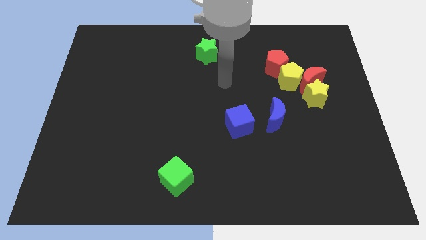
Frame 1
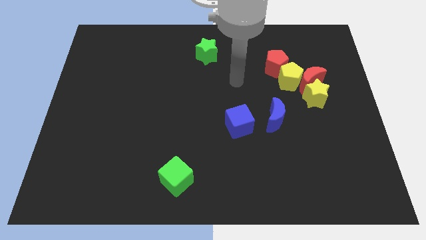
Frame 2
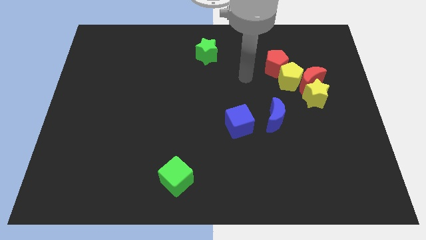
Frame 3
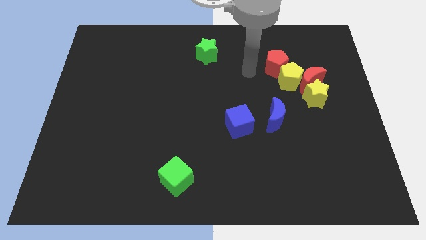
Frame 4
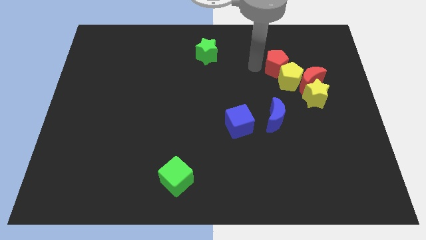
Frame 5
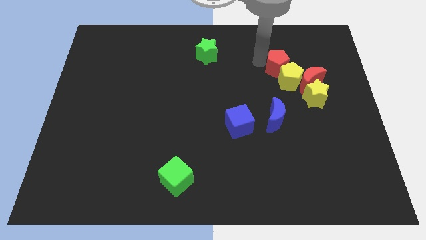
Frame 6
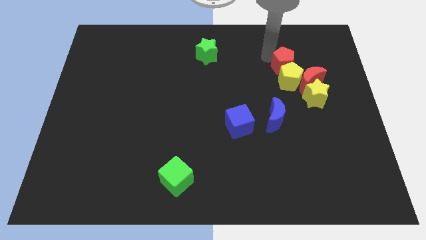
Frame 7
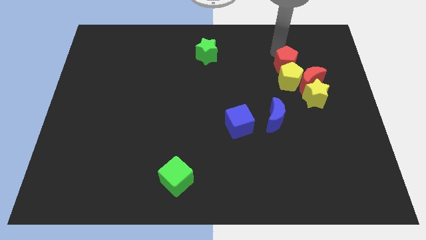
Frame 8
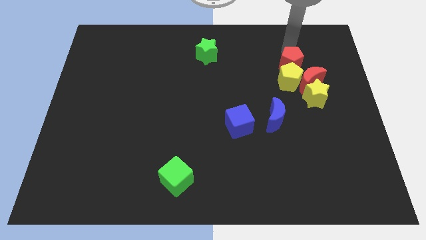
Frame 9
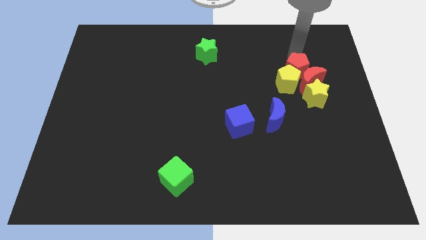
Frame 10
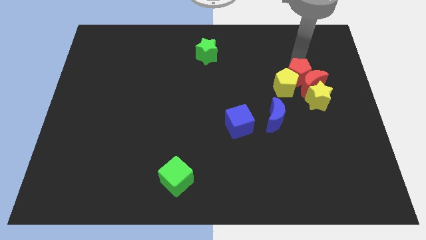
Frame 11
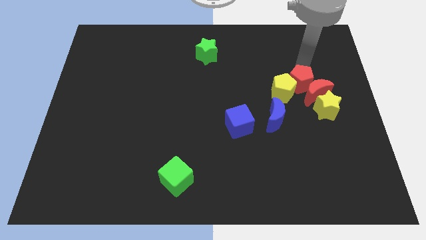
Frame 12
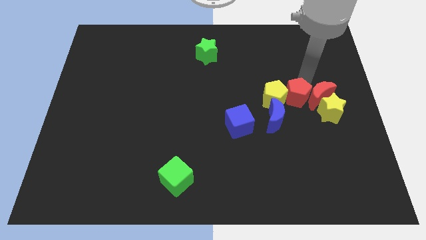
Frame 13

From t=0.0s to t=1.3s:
move the yellow pentagon away from the red moon, red pentagon, and yellow star

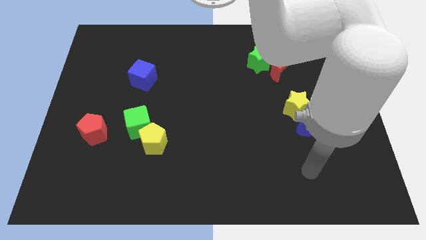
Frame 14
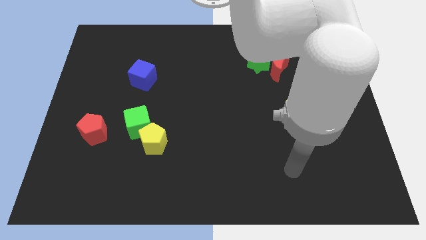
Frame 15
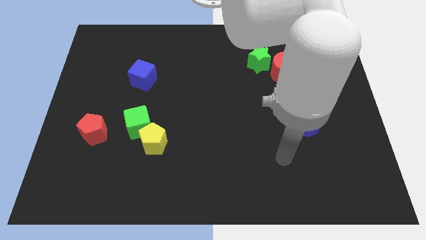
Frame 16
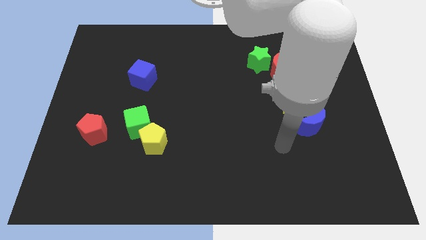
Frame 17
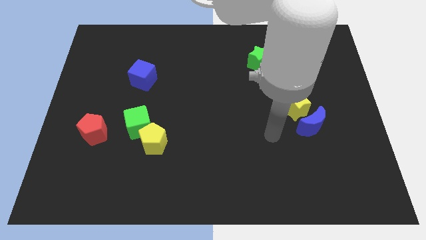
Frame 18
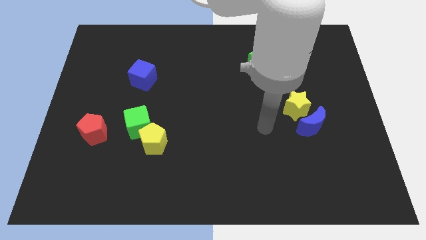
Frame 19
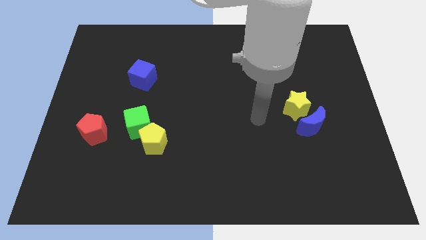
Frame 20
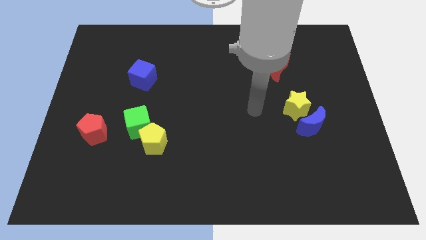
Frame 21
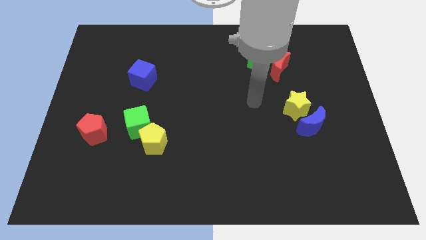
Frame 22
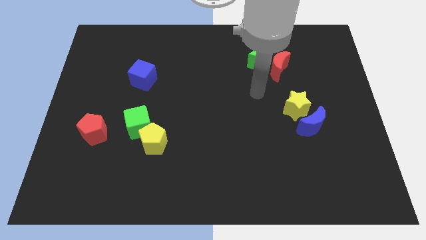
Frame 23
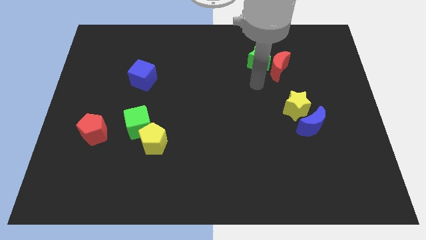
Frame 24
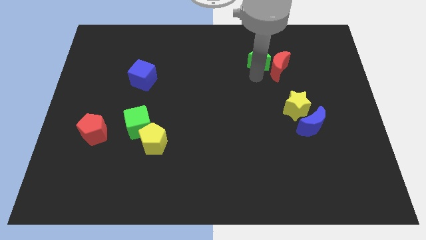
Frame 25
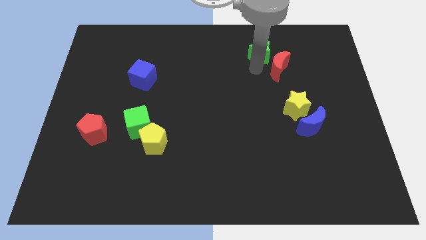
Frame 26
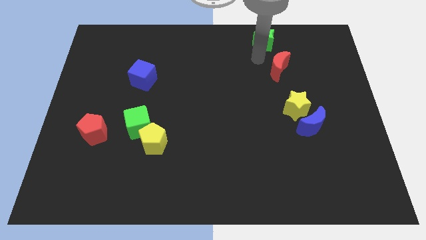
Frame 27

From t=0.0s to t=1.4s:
separate the red moon from the green star

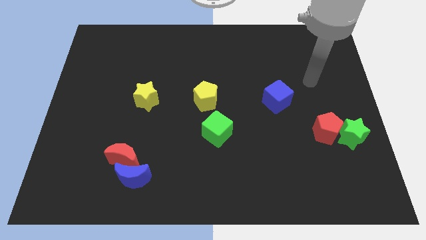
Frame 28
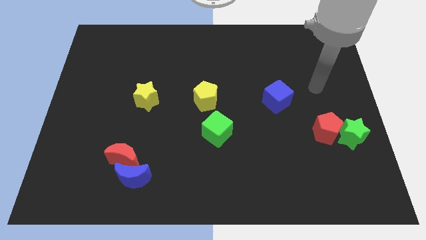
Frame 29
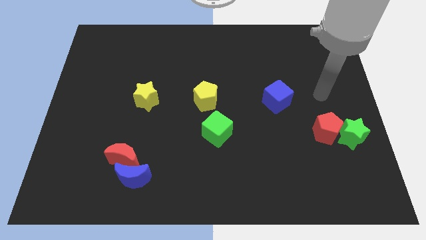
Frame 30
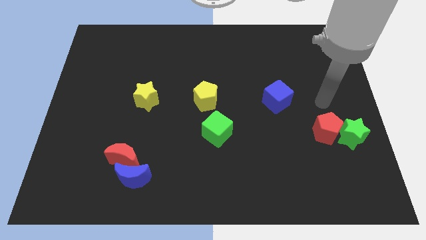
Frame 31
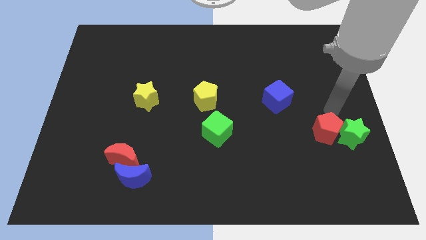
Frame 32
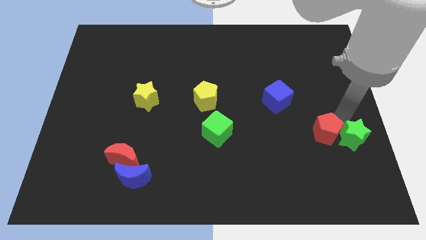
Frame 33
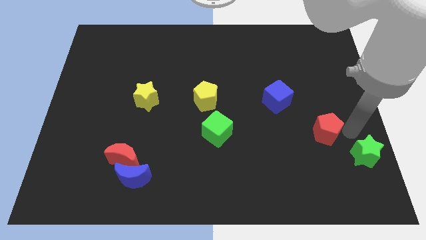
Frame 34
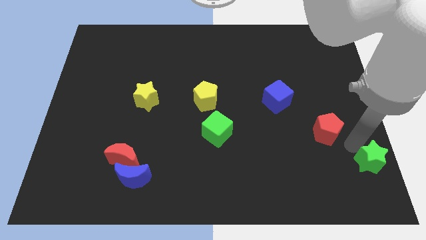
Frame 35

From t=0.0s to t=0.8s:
pull the red pentagon apart from the green star

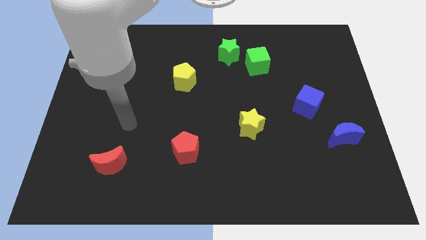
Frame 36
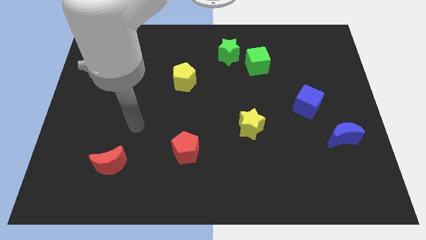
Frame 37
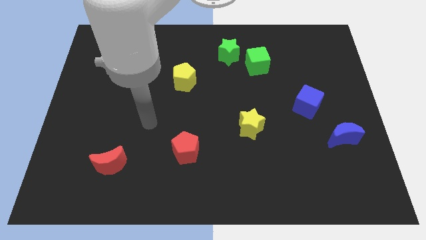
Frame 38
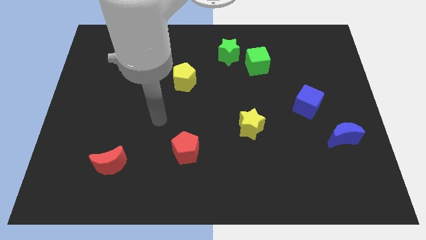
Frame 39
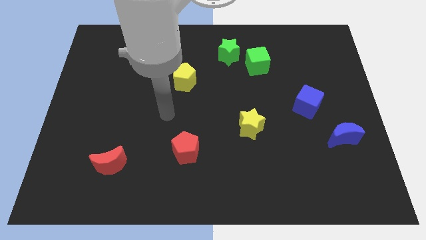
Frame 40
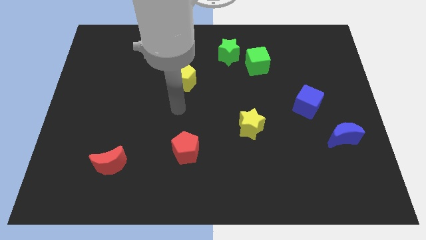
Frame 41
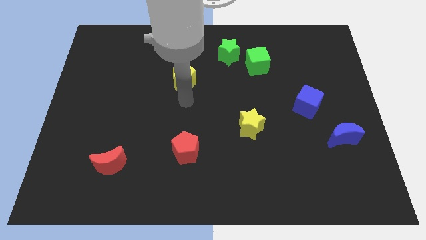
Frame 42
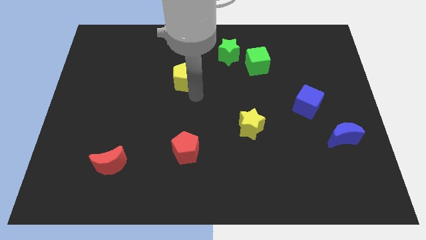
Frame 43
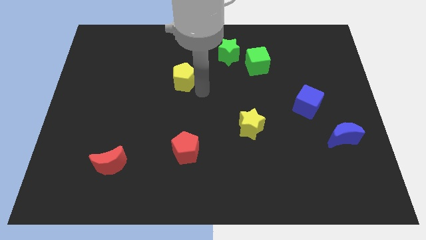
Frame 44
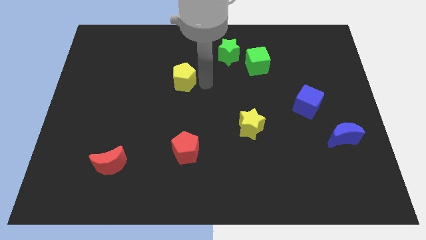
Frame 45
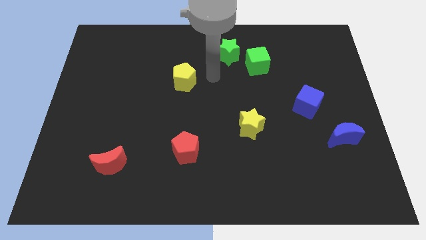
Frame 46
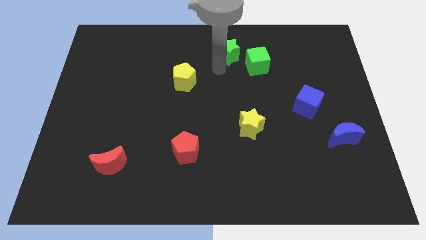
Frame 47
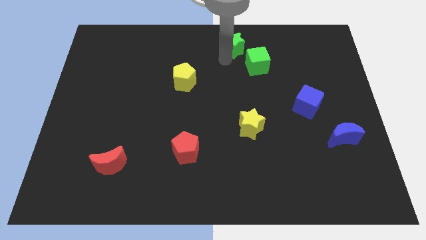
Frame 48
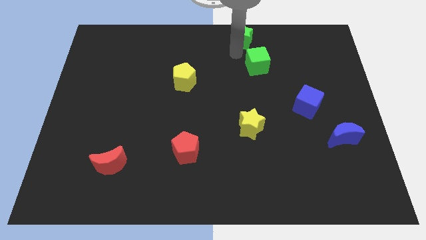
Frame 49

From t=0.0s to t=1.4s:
pull the green cube apart from the green star

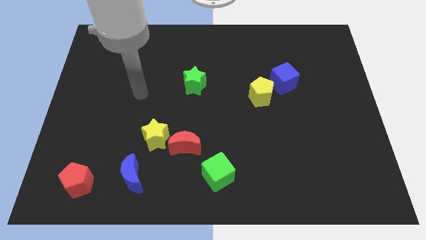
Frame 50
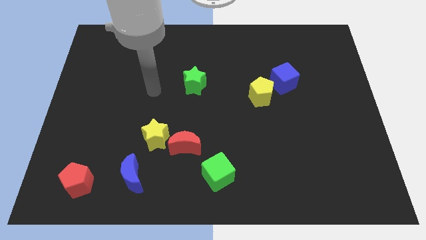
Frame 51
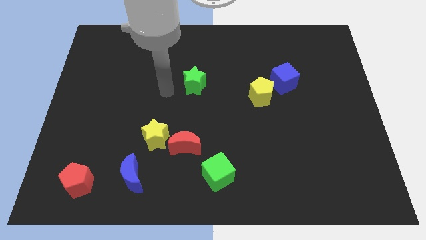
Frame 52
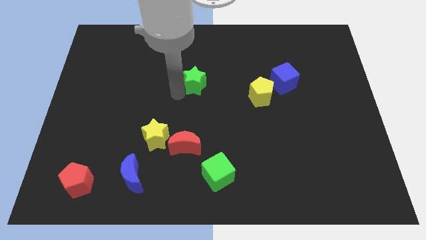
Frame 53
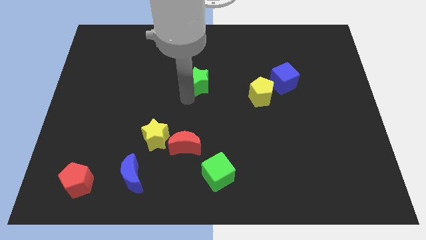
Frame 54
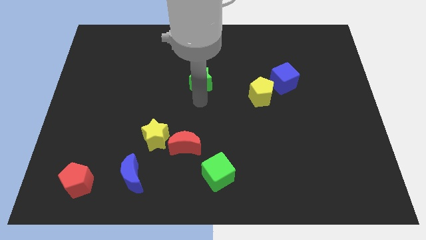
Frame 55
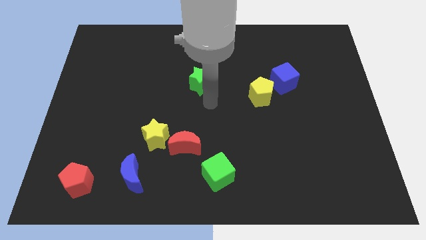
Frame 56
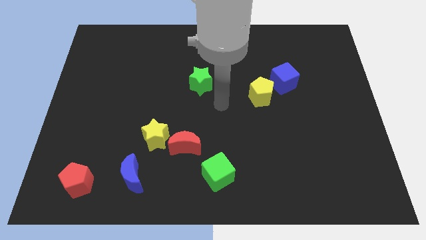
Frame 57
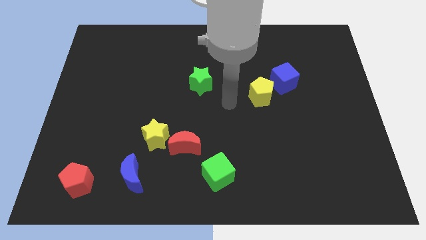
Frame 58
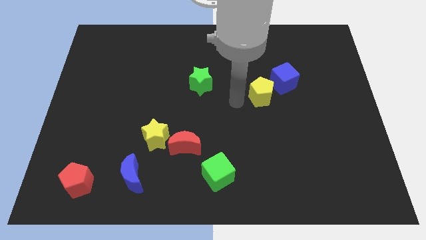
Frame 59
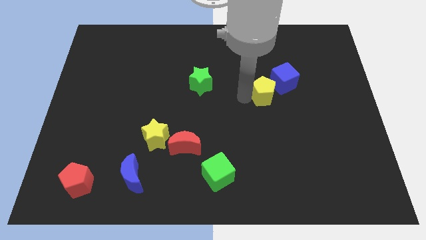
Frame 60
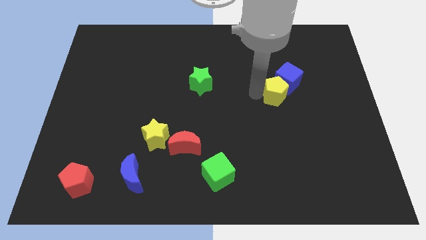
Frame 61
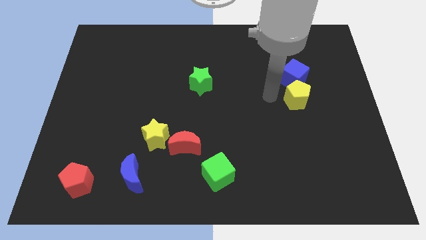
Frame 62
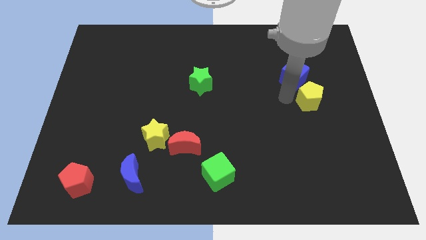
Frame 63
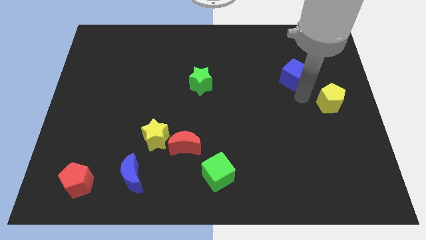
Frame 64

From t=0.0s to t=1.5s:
move the blue cube away from the yellow pentagon

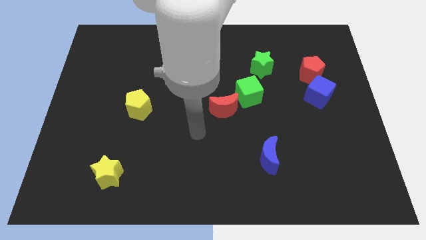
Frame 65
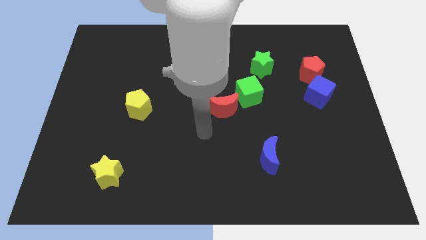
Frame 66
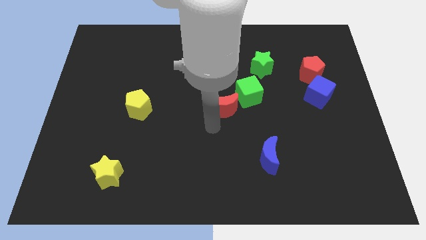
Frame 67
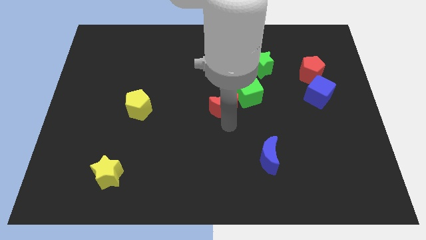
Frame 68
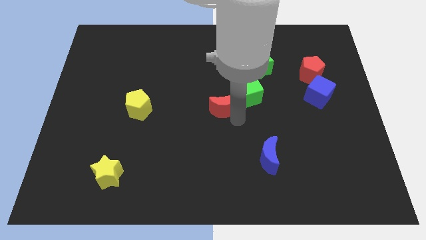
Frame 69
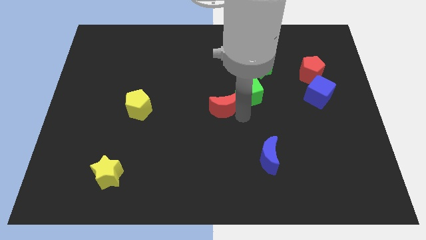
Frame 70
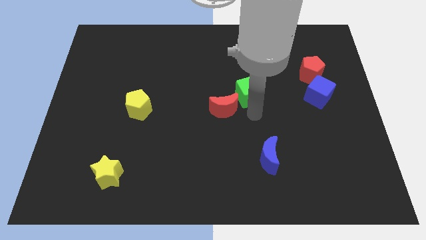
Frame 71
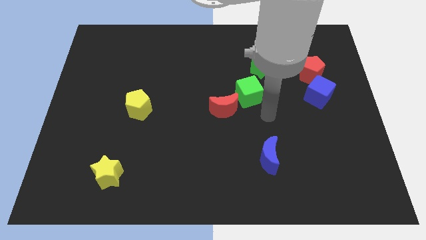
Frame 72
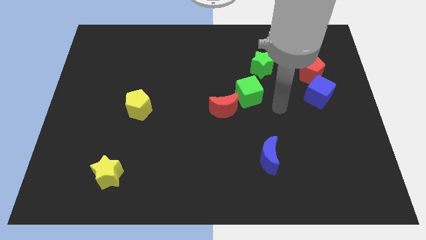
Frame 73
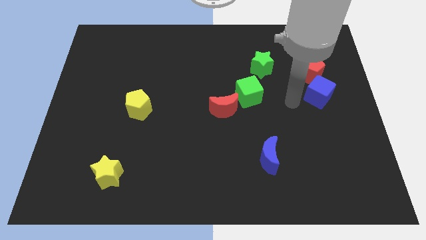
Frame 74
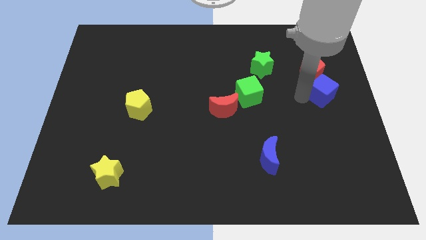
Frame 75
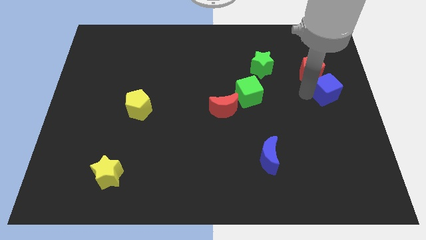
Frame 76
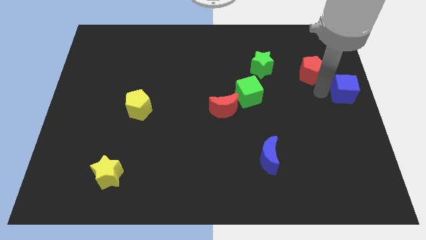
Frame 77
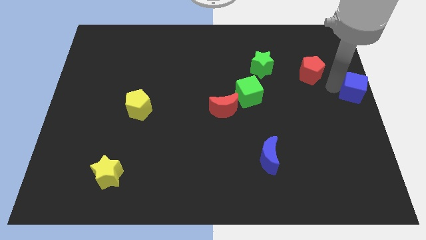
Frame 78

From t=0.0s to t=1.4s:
separate the red pentagon from the blue cube

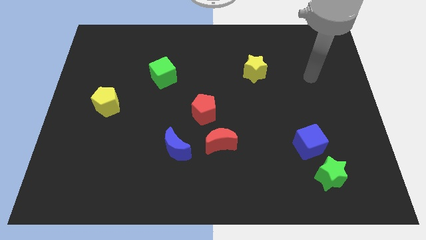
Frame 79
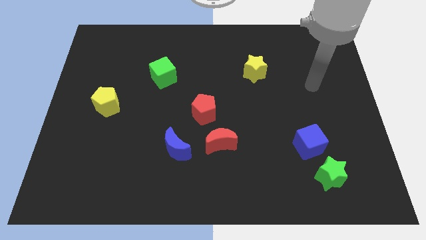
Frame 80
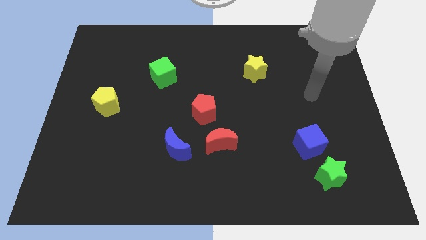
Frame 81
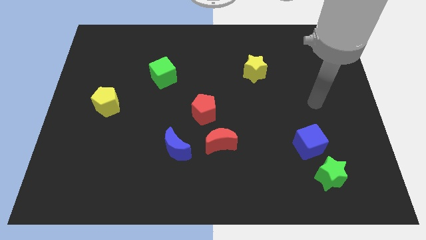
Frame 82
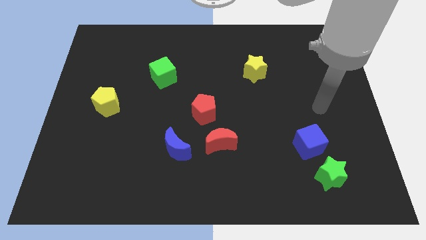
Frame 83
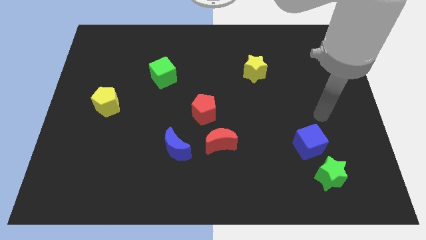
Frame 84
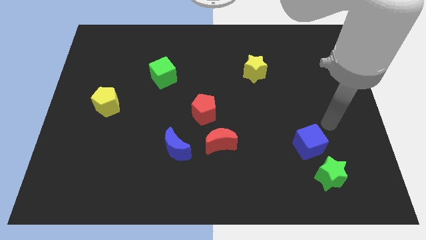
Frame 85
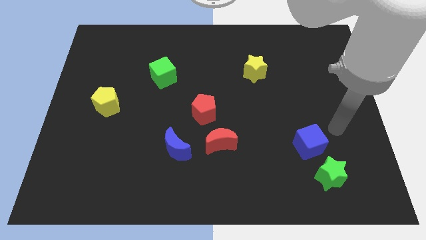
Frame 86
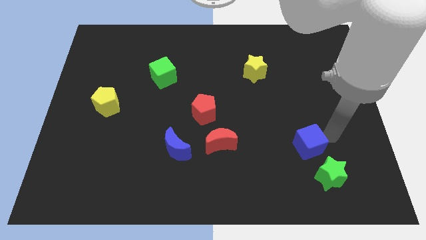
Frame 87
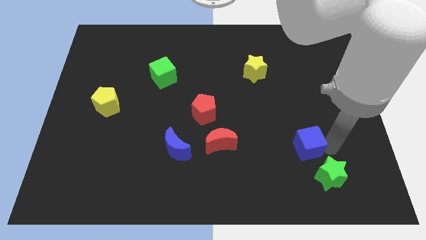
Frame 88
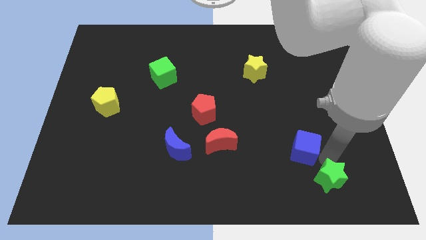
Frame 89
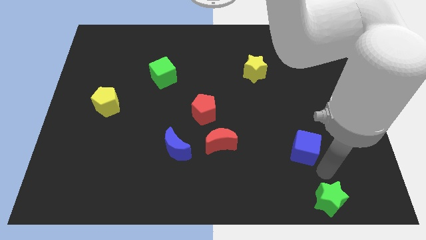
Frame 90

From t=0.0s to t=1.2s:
pull the blue cube apart from the green star

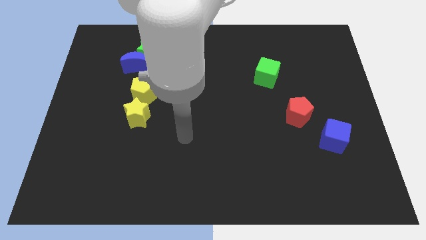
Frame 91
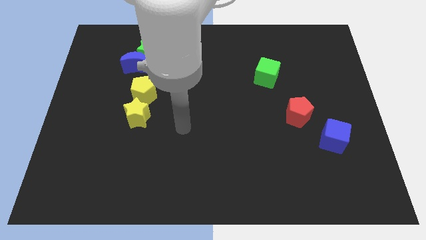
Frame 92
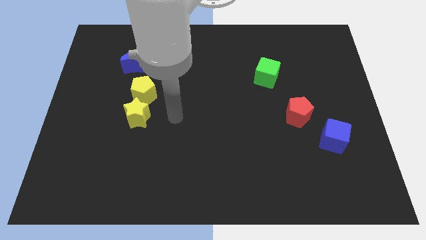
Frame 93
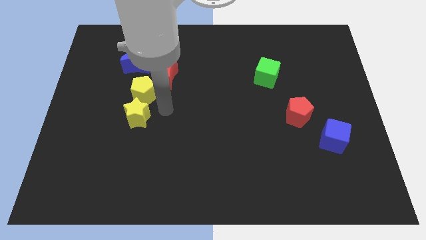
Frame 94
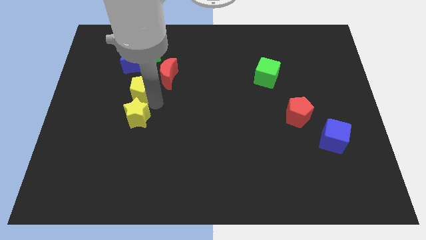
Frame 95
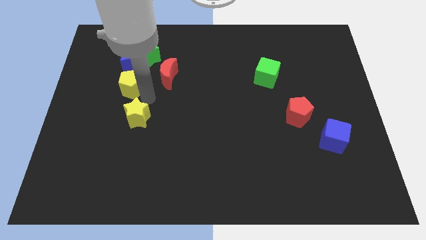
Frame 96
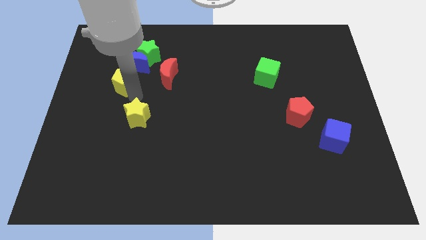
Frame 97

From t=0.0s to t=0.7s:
separate the yellow star from the yellow pentagon
